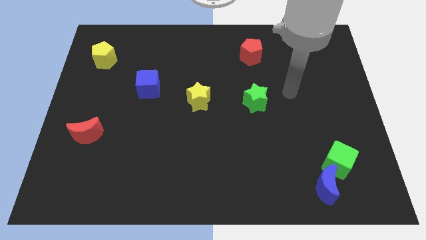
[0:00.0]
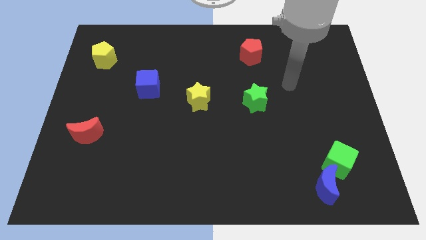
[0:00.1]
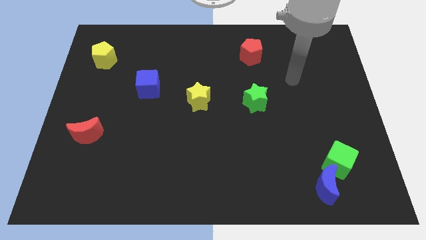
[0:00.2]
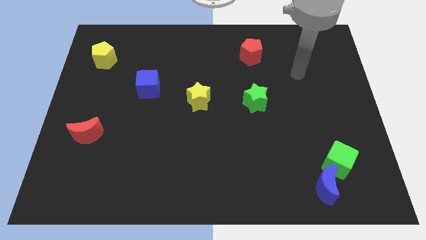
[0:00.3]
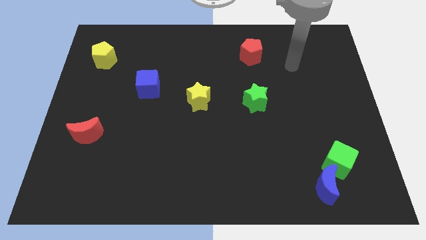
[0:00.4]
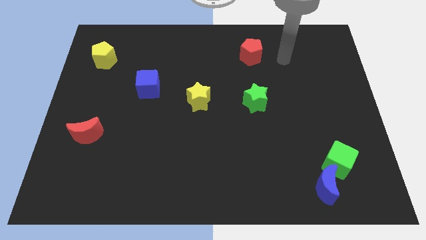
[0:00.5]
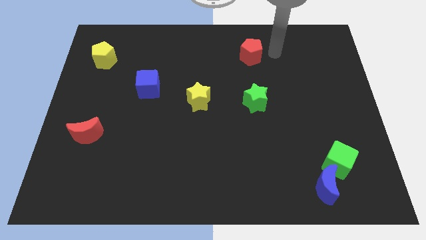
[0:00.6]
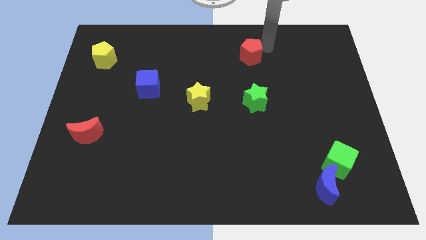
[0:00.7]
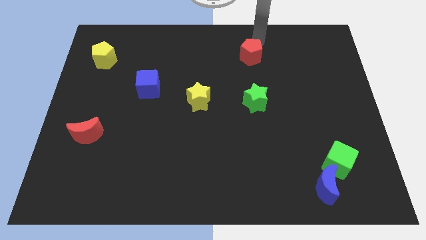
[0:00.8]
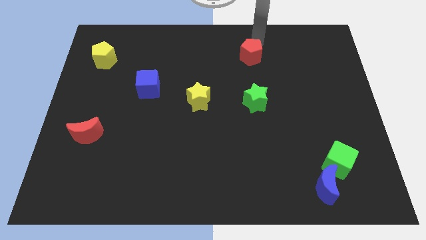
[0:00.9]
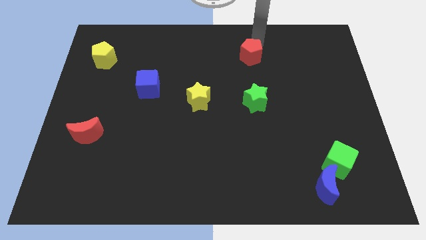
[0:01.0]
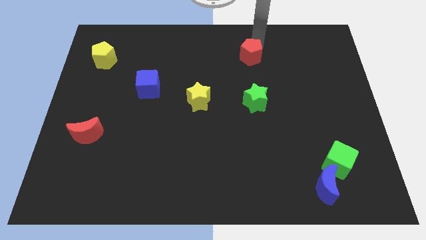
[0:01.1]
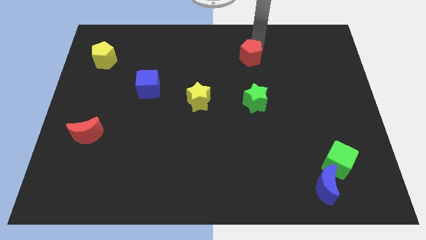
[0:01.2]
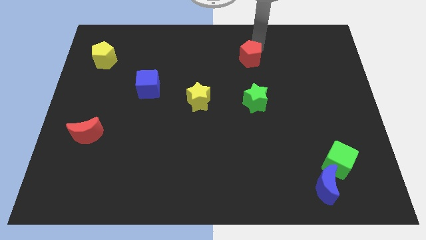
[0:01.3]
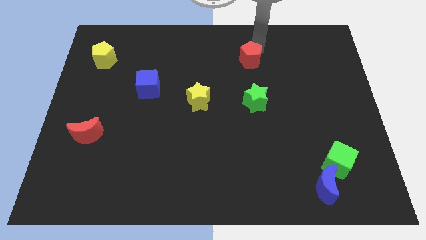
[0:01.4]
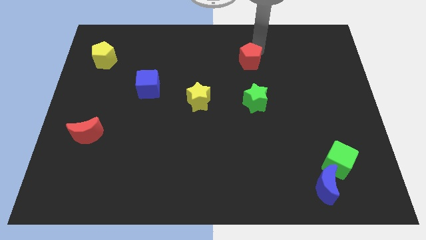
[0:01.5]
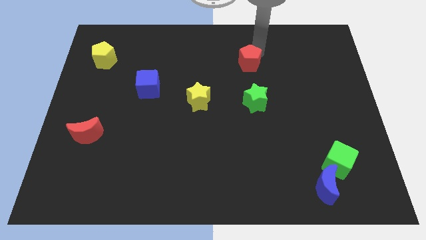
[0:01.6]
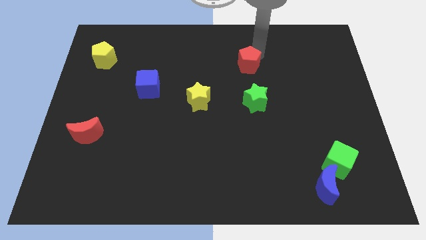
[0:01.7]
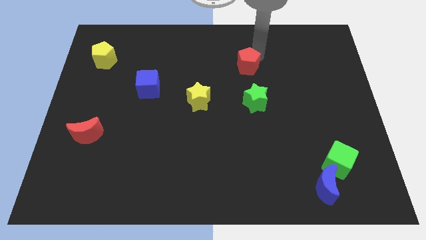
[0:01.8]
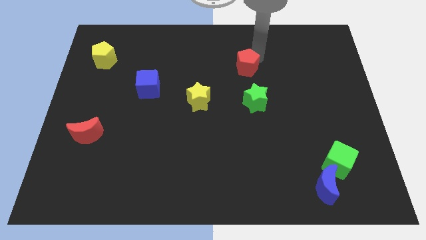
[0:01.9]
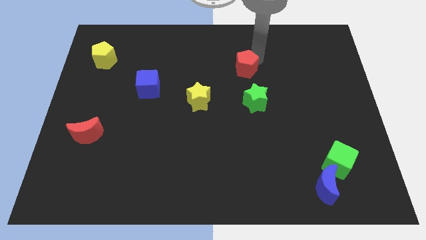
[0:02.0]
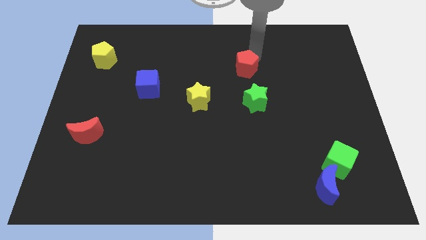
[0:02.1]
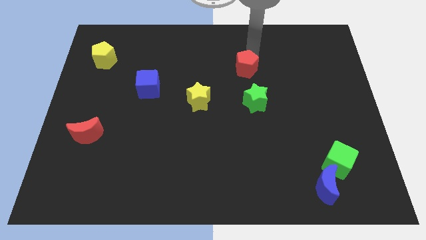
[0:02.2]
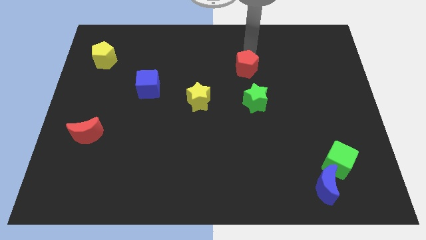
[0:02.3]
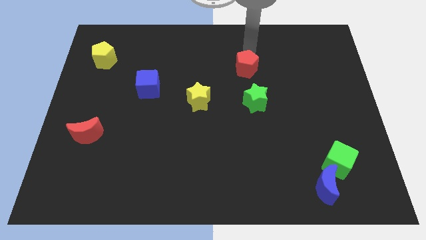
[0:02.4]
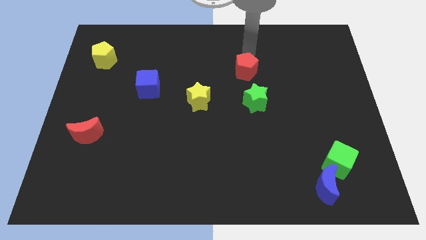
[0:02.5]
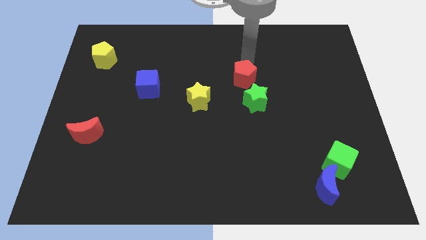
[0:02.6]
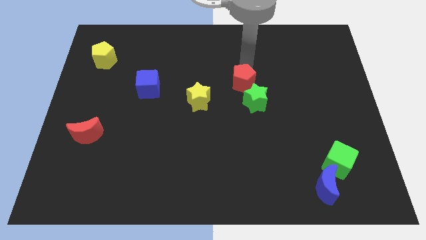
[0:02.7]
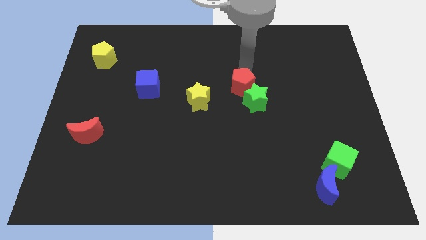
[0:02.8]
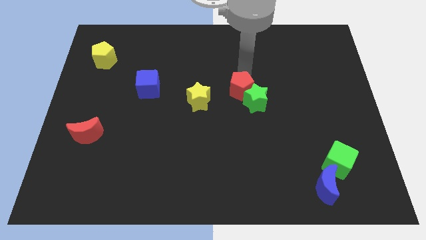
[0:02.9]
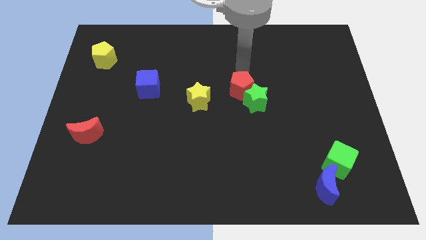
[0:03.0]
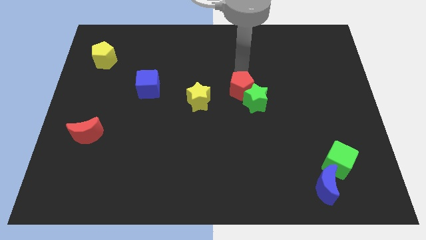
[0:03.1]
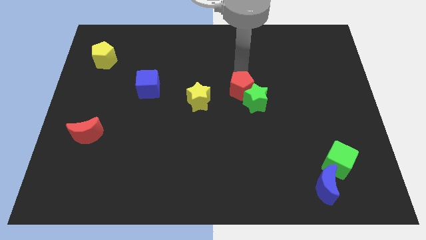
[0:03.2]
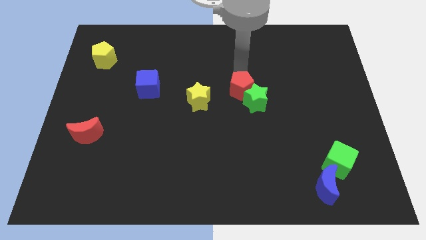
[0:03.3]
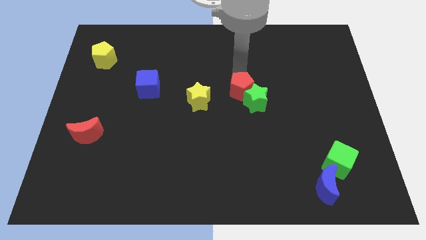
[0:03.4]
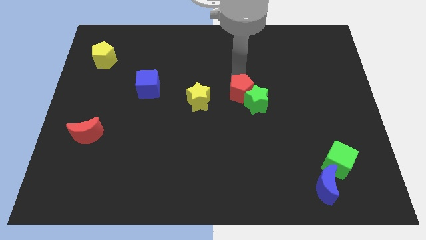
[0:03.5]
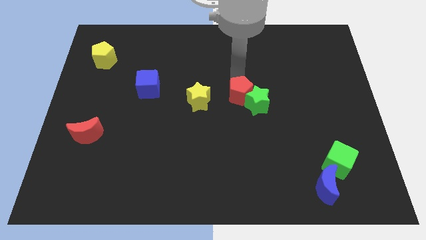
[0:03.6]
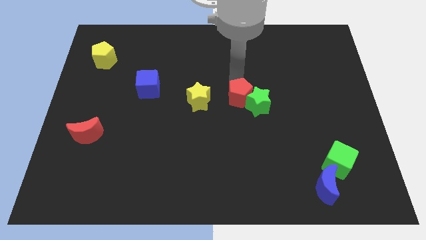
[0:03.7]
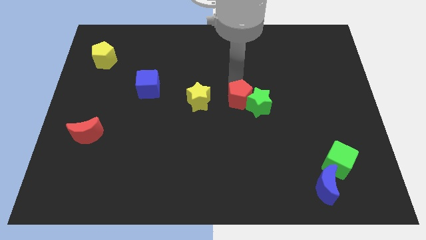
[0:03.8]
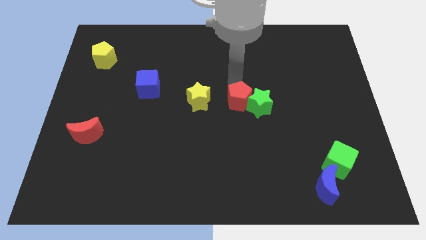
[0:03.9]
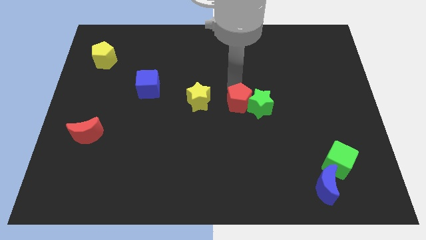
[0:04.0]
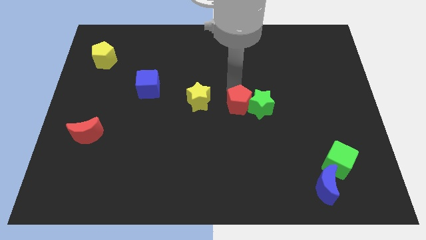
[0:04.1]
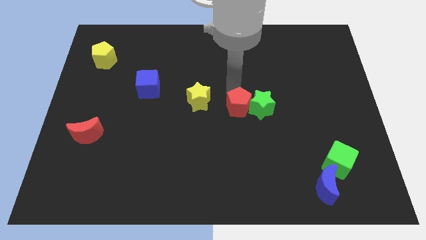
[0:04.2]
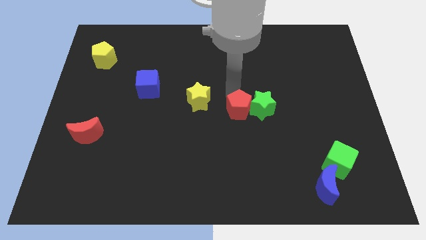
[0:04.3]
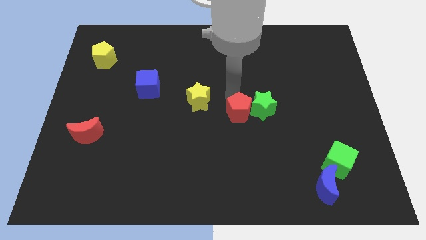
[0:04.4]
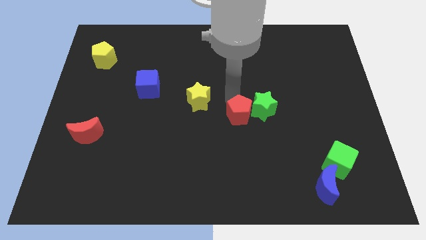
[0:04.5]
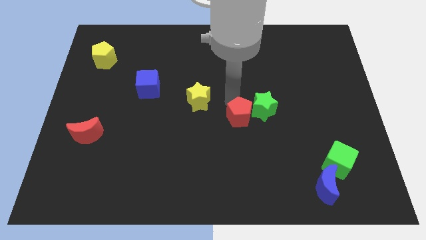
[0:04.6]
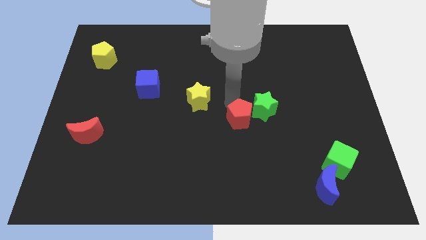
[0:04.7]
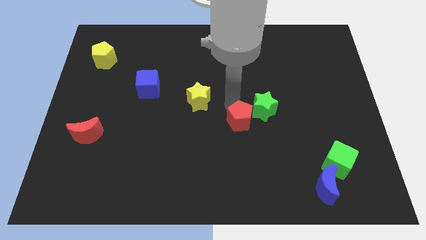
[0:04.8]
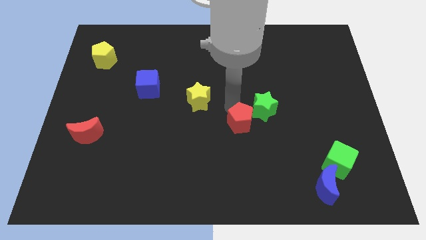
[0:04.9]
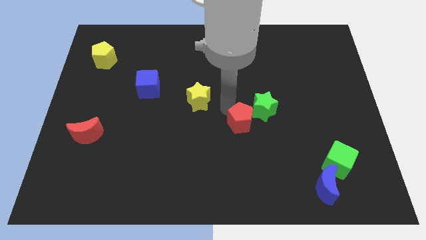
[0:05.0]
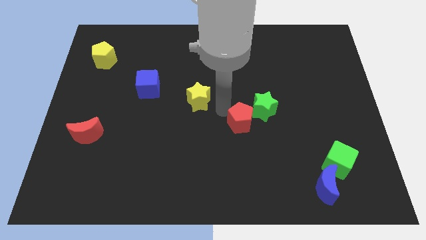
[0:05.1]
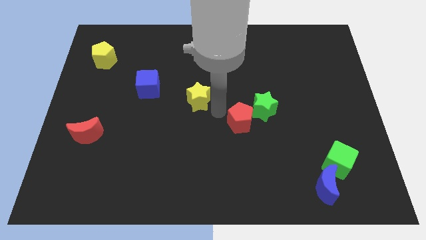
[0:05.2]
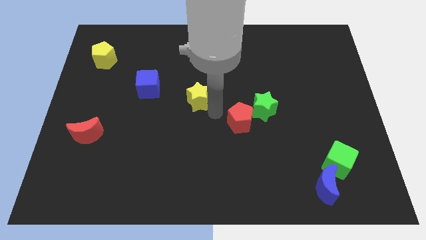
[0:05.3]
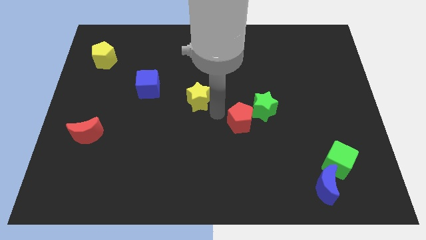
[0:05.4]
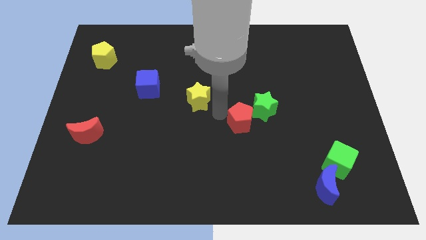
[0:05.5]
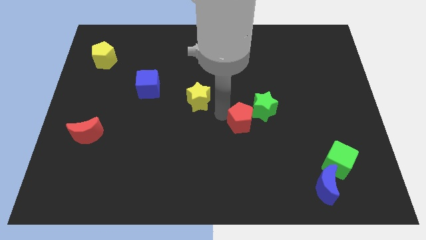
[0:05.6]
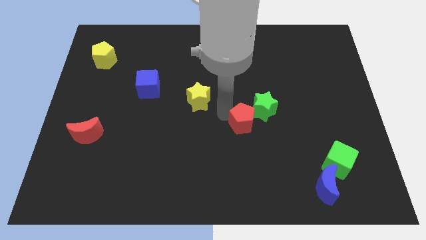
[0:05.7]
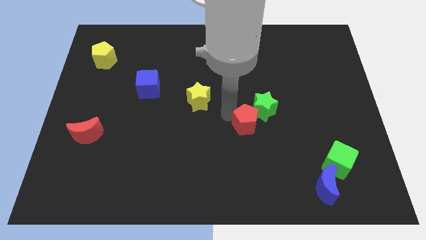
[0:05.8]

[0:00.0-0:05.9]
slide the red pentagon to the bottom side of the green star

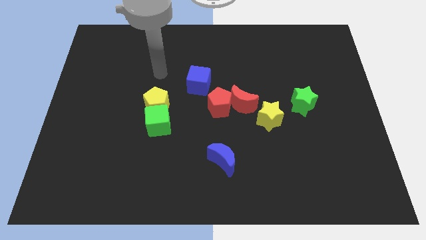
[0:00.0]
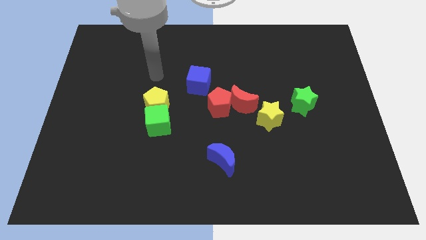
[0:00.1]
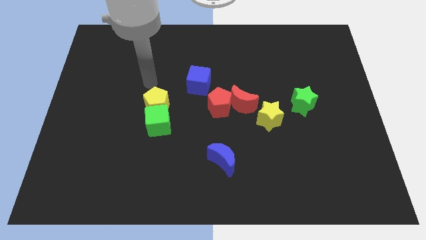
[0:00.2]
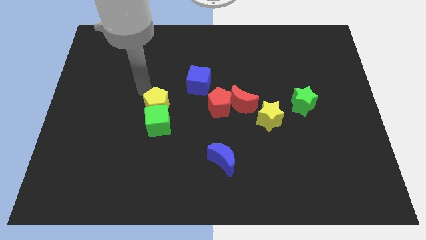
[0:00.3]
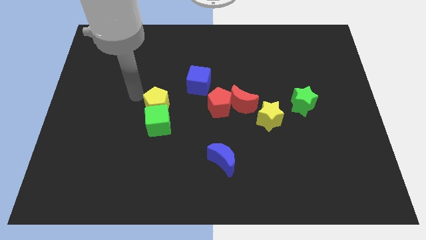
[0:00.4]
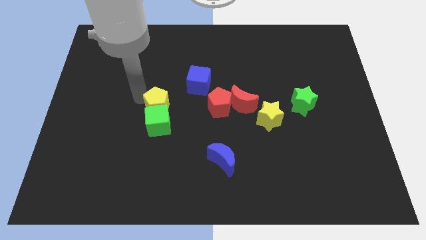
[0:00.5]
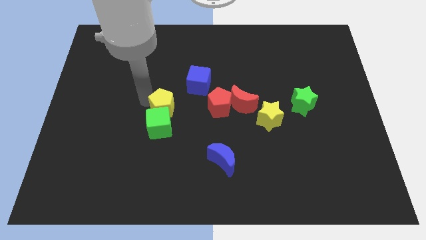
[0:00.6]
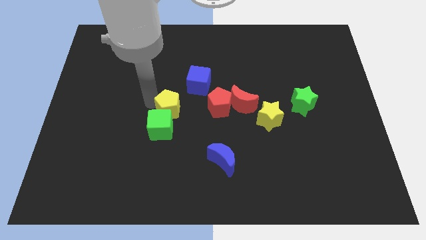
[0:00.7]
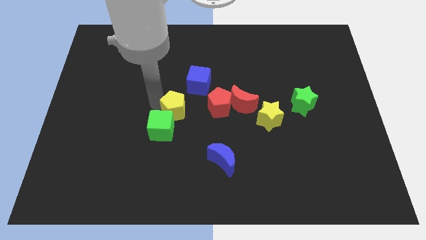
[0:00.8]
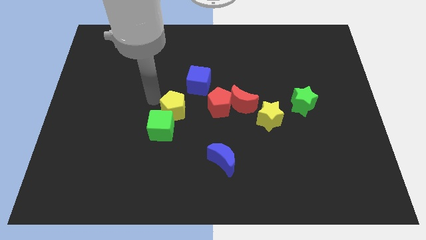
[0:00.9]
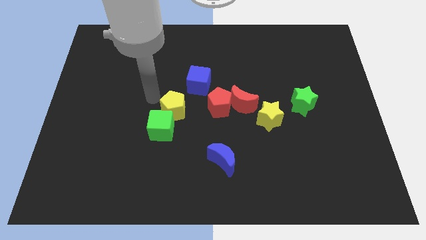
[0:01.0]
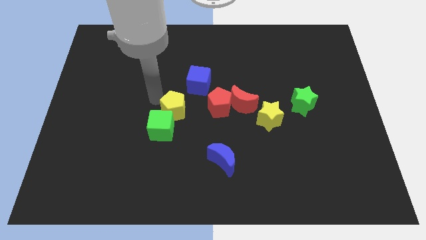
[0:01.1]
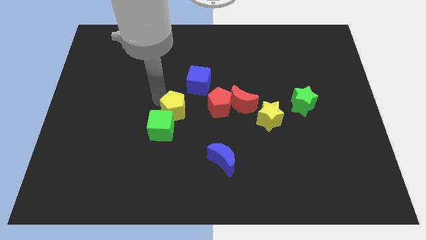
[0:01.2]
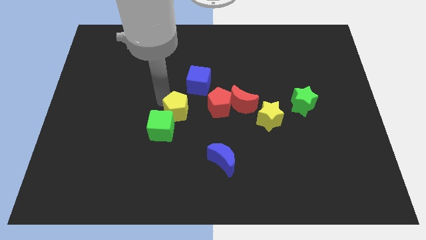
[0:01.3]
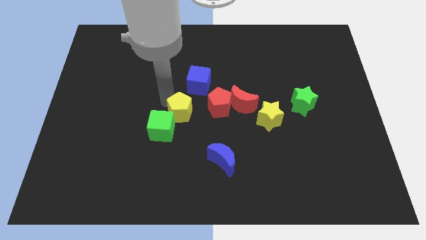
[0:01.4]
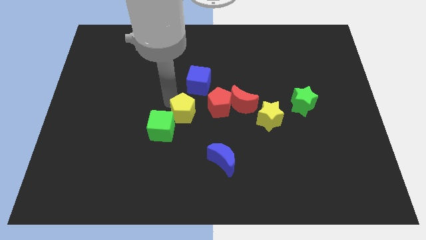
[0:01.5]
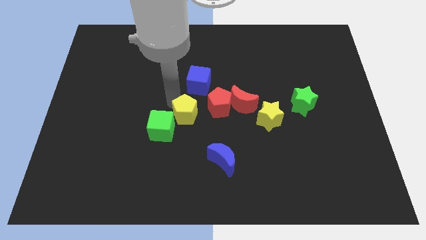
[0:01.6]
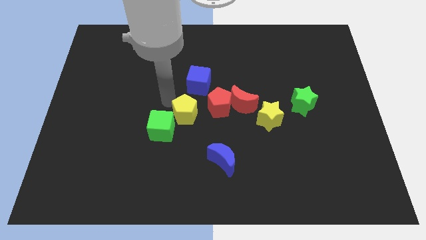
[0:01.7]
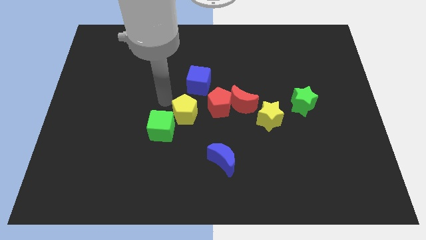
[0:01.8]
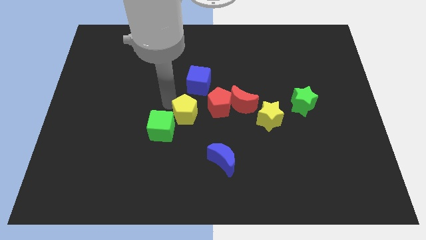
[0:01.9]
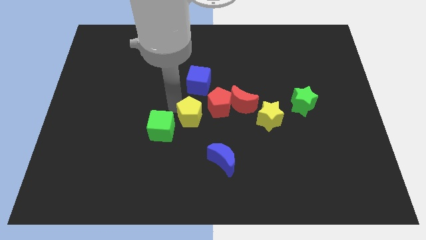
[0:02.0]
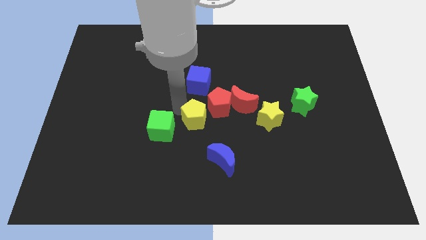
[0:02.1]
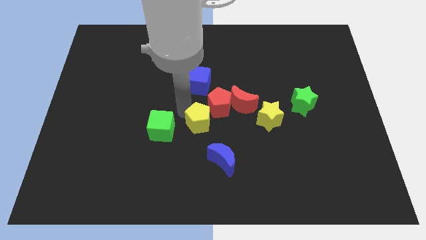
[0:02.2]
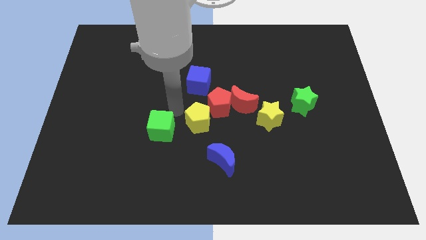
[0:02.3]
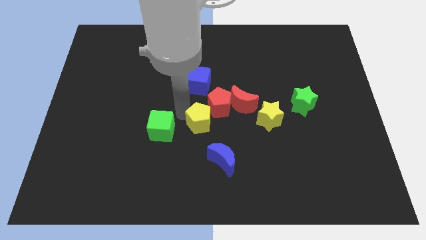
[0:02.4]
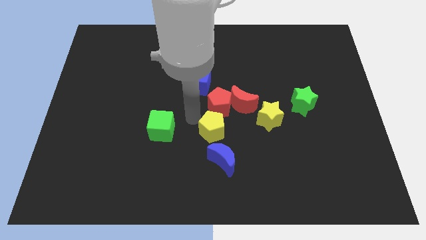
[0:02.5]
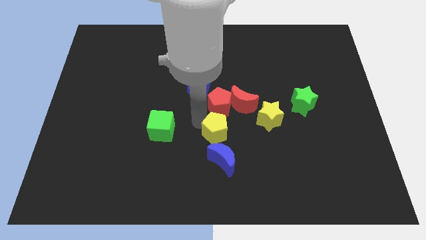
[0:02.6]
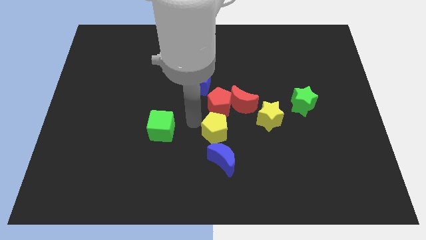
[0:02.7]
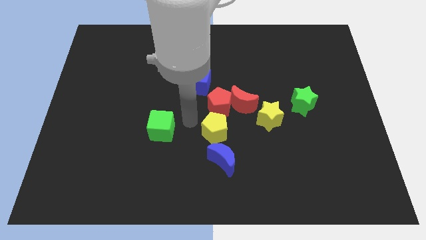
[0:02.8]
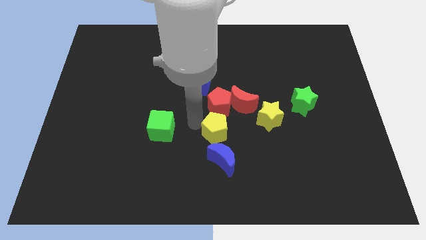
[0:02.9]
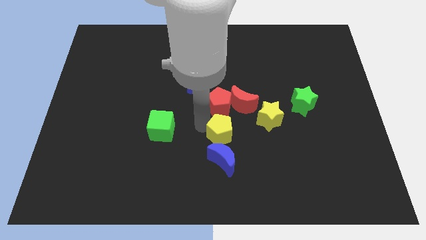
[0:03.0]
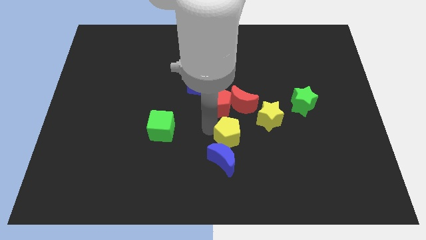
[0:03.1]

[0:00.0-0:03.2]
push the yellow pentagon to the bottom side of the red moon
